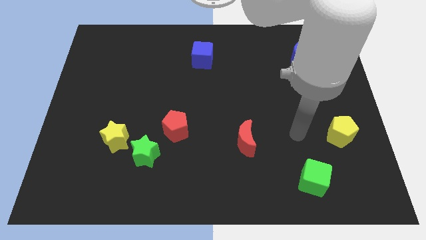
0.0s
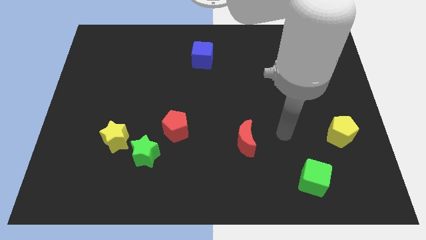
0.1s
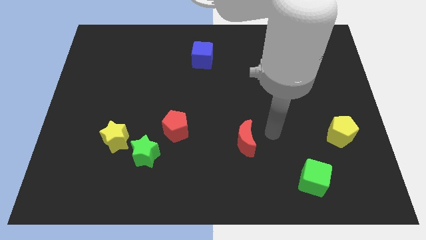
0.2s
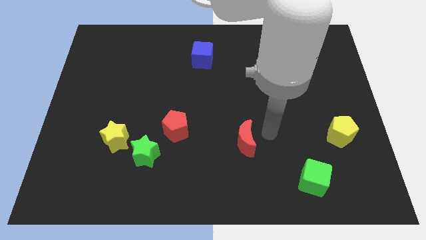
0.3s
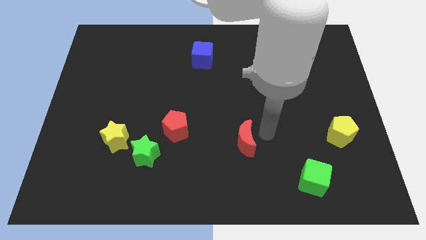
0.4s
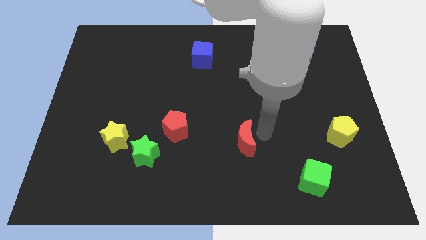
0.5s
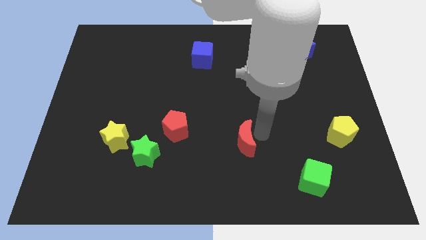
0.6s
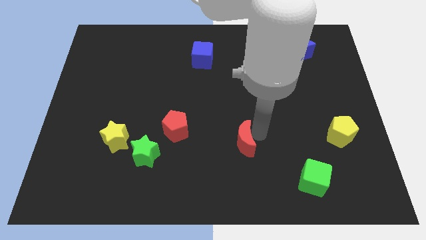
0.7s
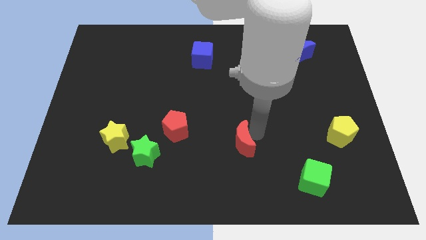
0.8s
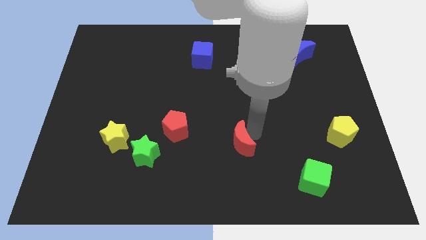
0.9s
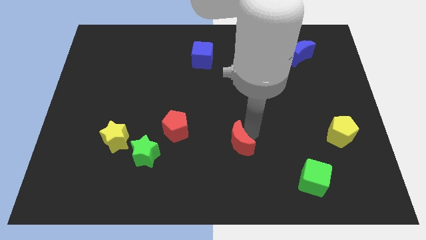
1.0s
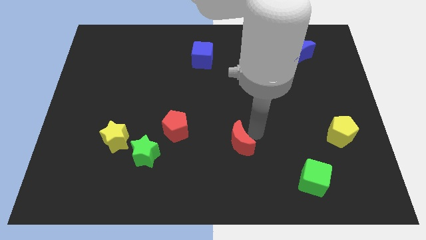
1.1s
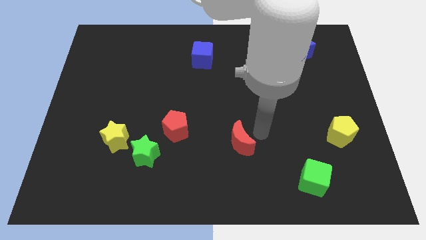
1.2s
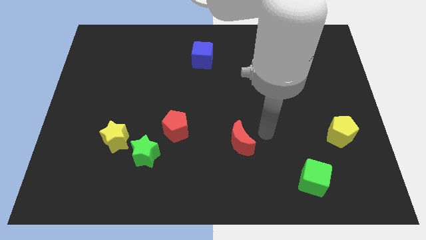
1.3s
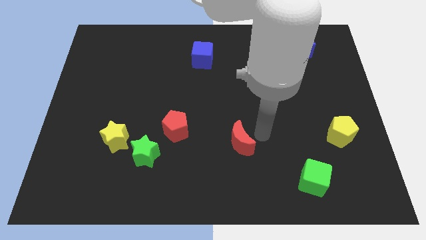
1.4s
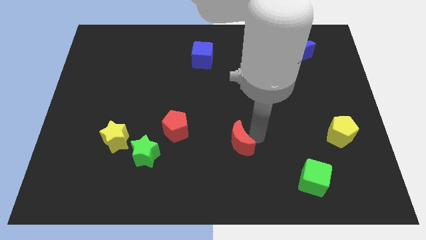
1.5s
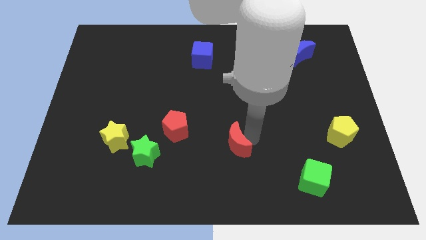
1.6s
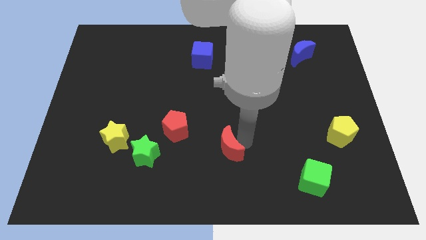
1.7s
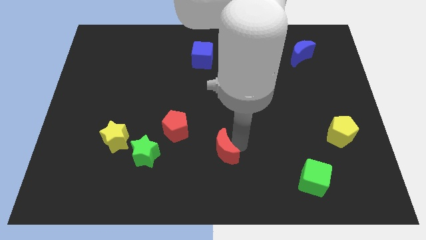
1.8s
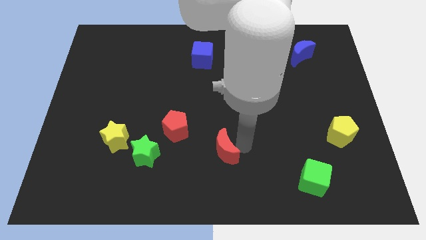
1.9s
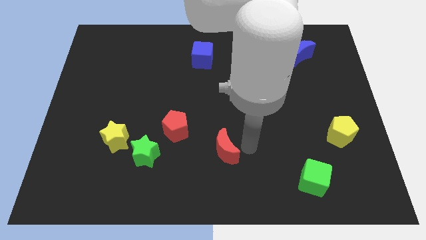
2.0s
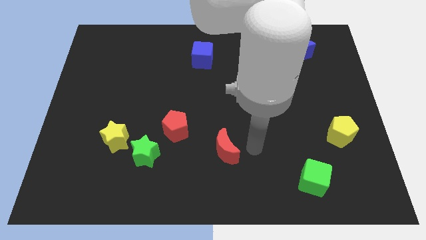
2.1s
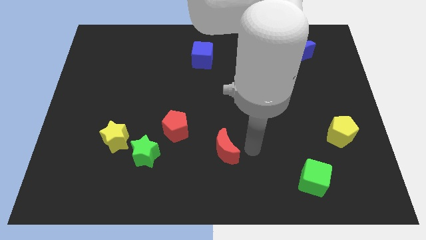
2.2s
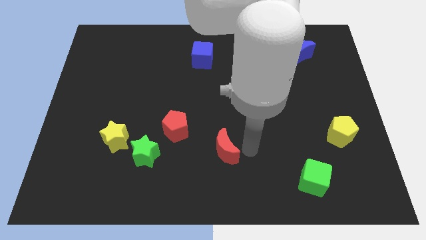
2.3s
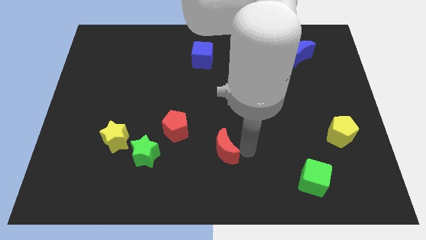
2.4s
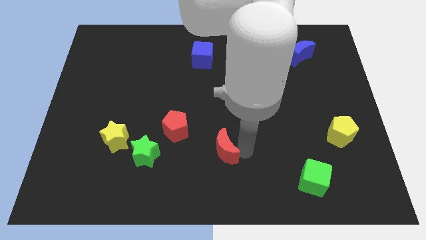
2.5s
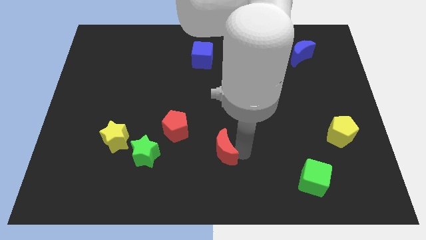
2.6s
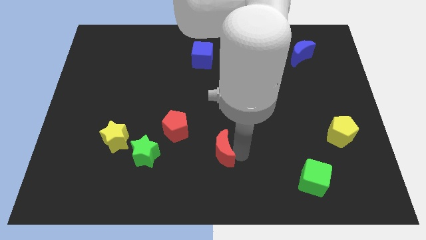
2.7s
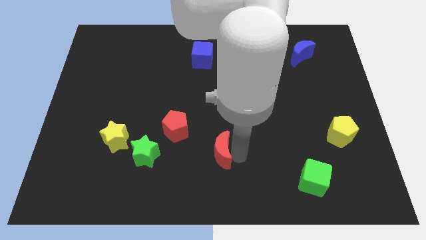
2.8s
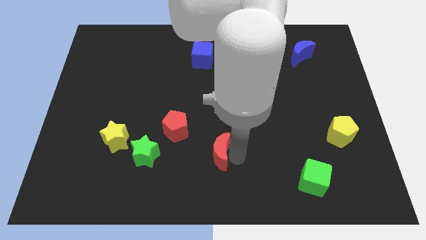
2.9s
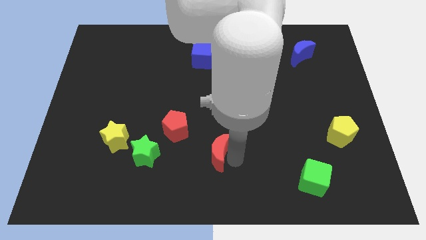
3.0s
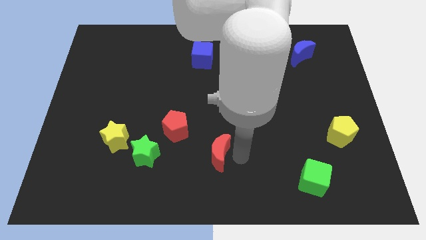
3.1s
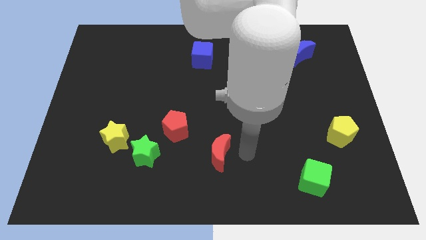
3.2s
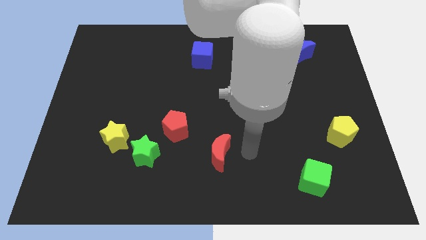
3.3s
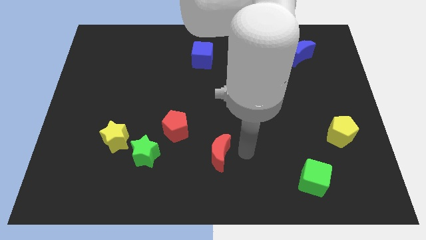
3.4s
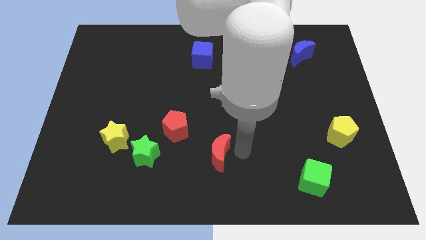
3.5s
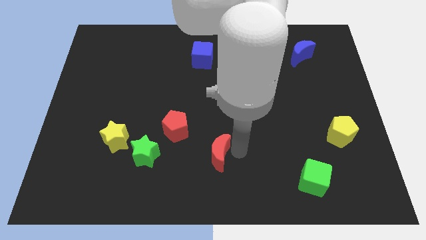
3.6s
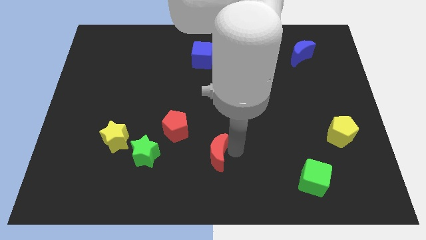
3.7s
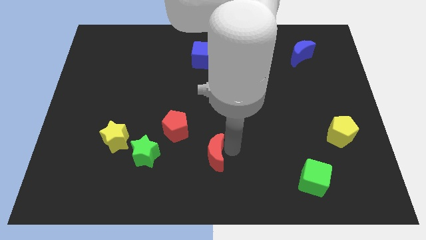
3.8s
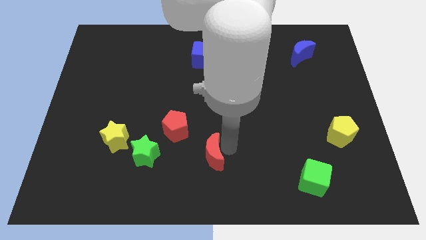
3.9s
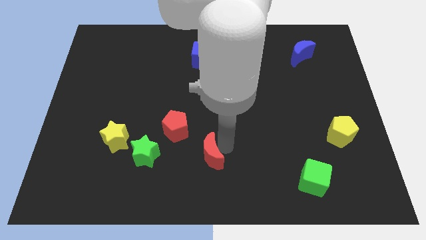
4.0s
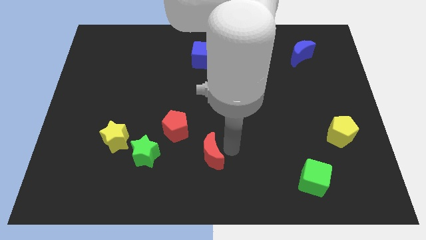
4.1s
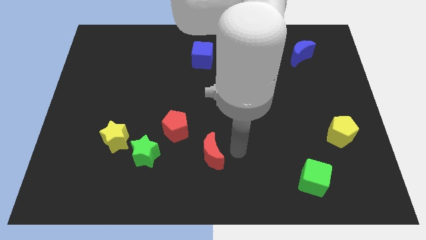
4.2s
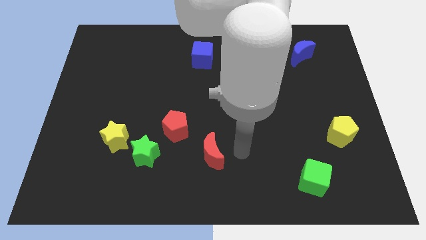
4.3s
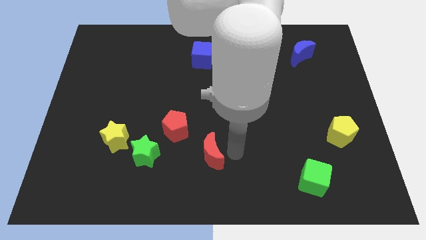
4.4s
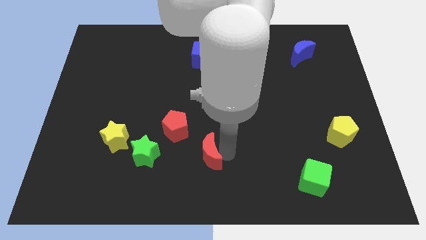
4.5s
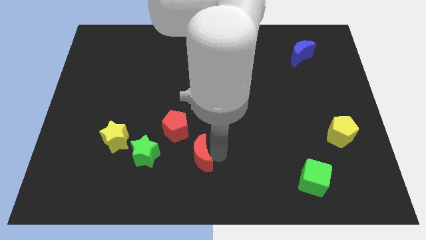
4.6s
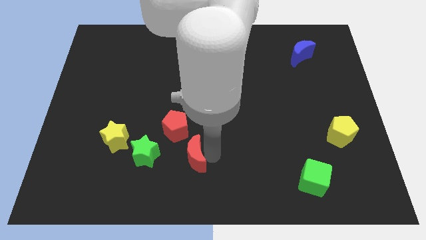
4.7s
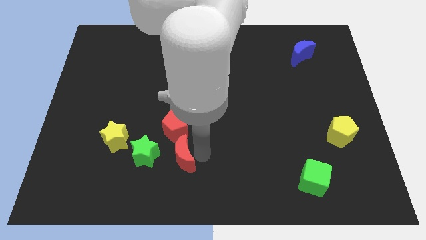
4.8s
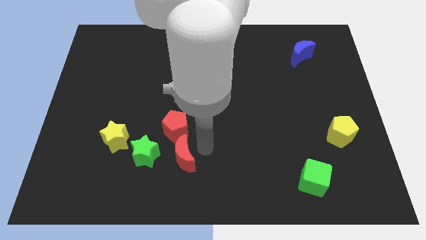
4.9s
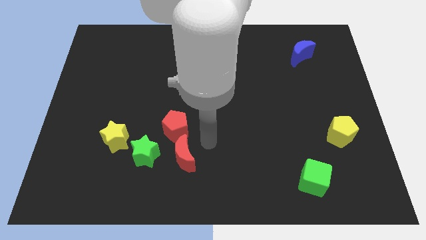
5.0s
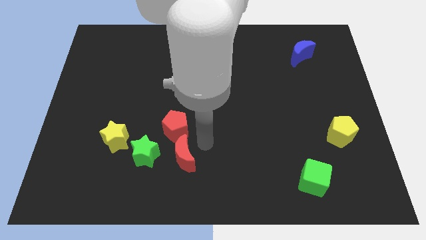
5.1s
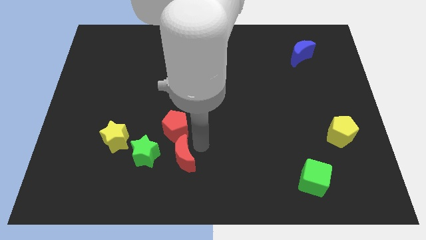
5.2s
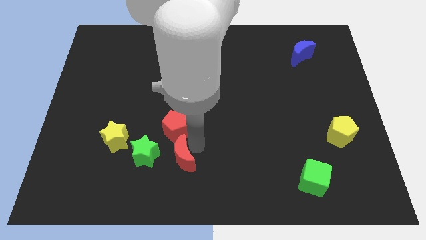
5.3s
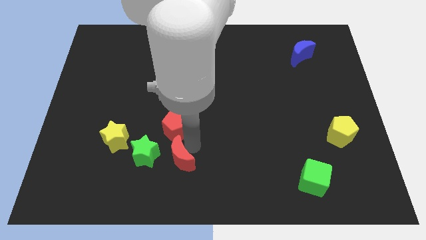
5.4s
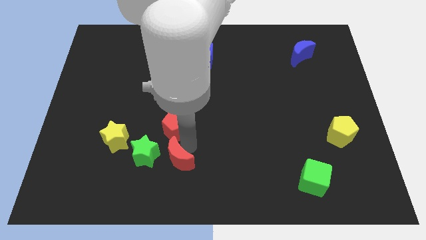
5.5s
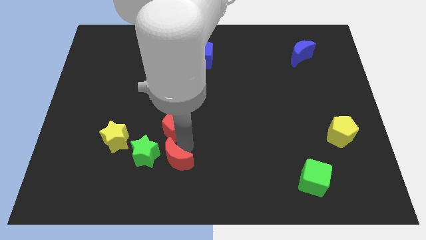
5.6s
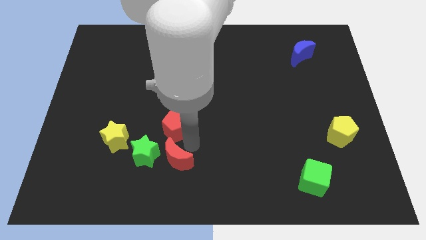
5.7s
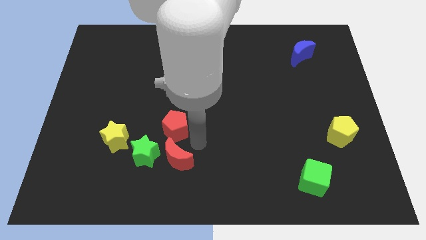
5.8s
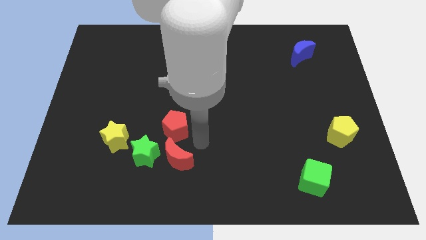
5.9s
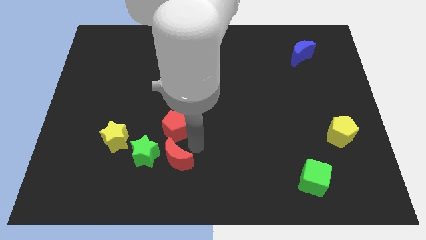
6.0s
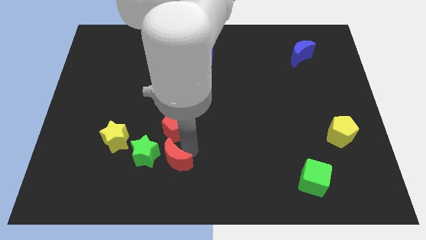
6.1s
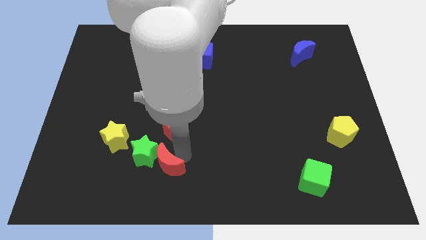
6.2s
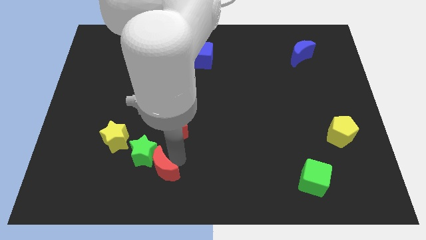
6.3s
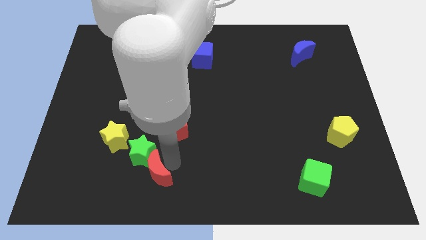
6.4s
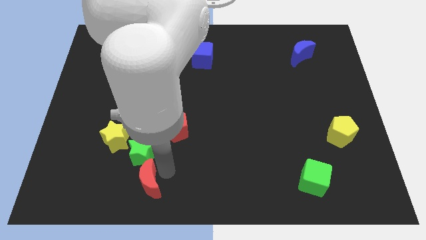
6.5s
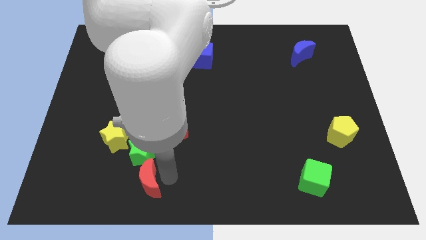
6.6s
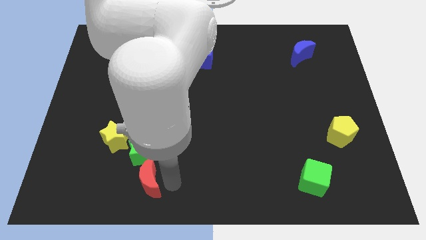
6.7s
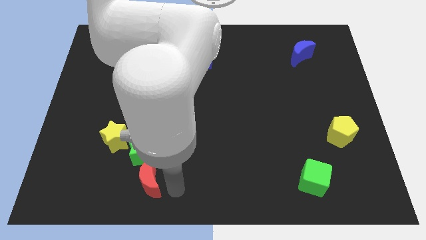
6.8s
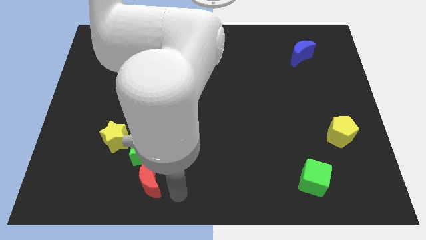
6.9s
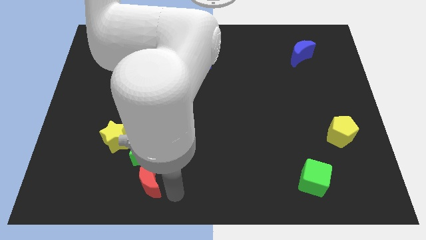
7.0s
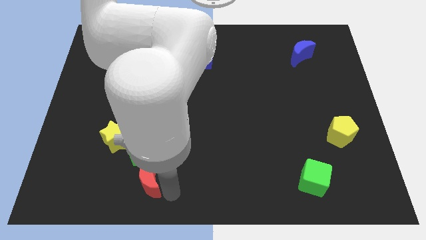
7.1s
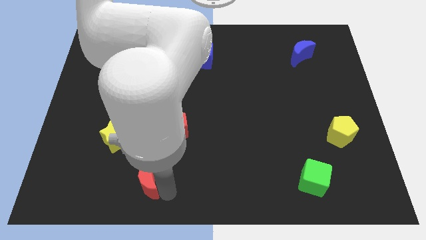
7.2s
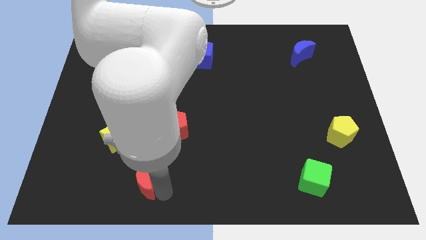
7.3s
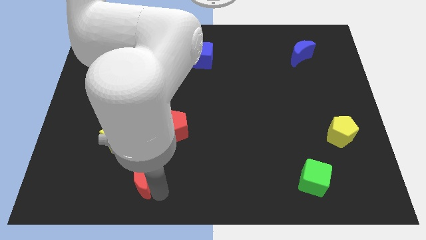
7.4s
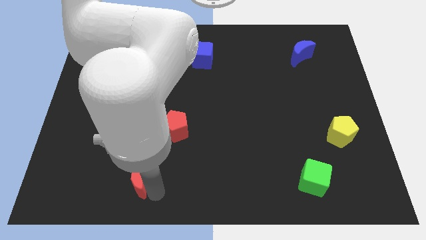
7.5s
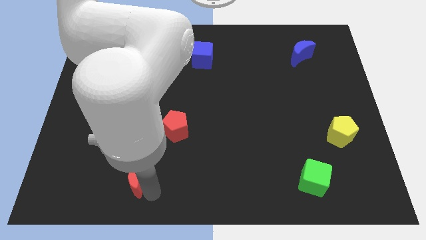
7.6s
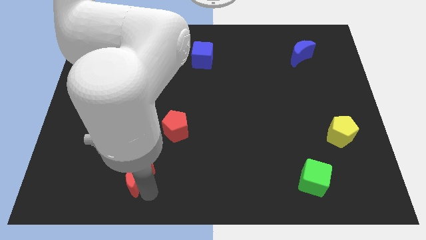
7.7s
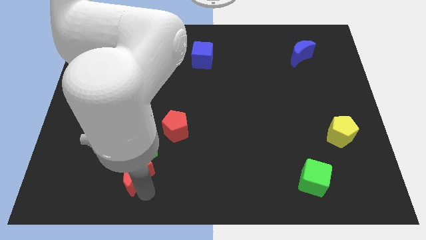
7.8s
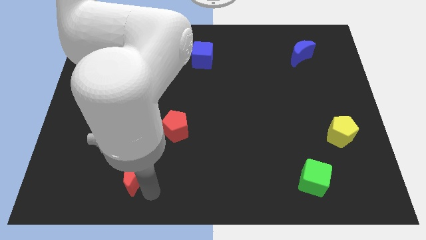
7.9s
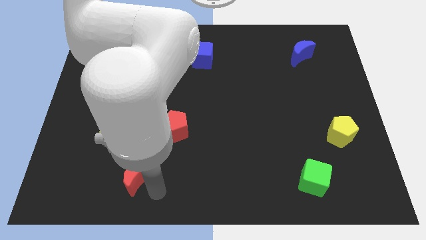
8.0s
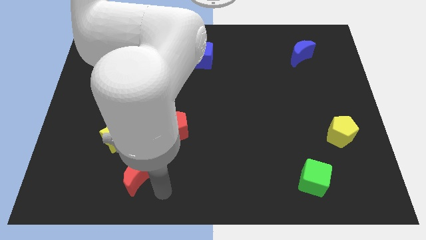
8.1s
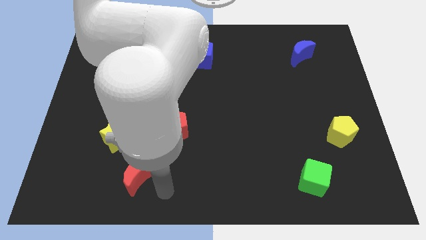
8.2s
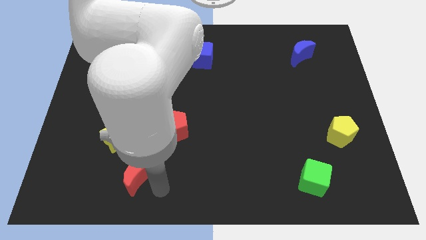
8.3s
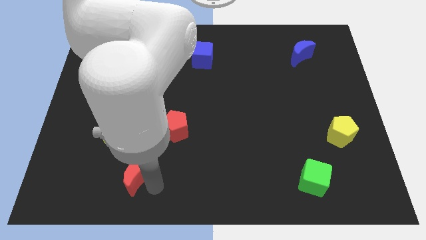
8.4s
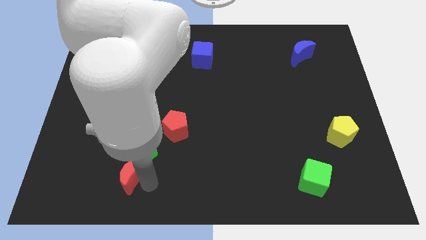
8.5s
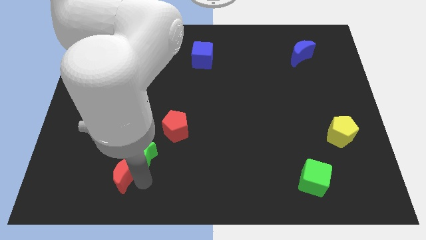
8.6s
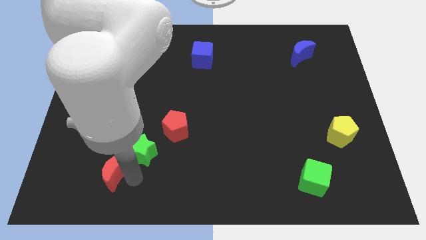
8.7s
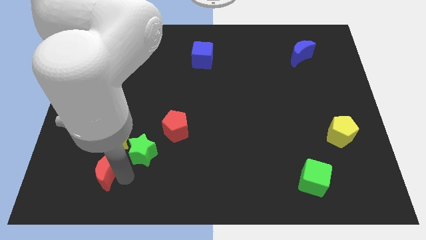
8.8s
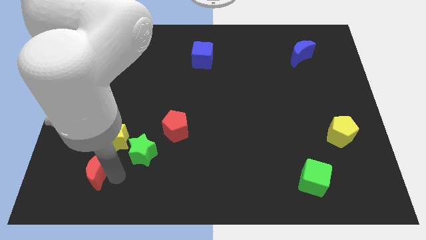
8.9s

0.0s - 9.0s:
push the red moon to the bottom left side of the yellow star
